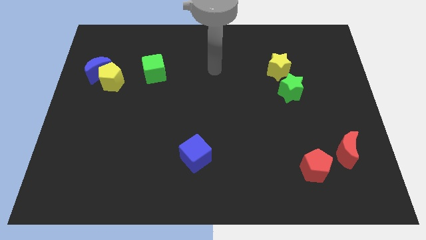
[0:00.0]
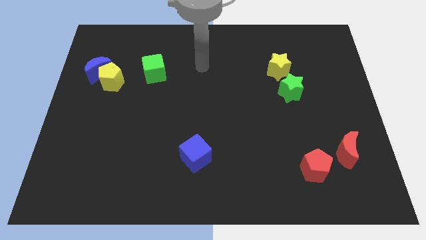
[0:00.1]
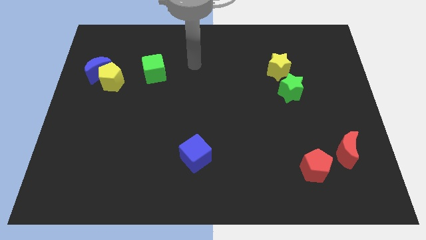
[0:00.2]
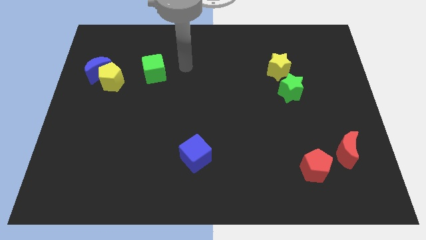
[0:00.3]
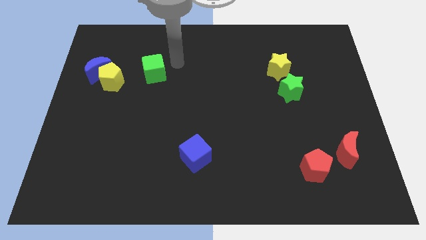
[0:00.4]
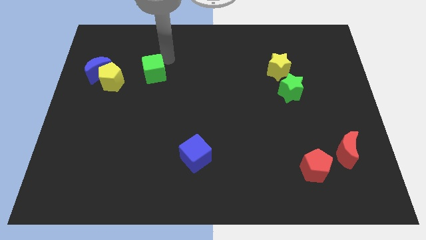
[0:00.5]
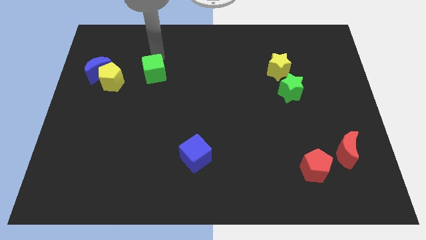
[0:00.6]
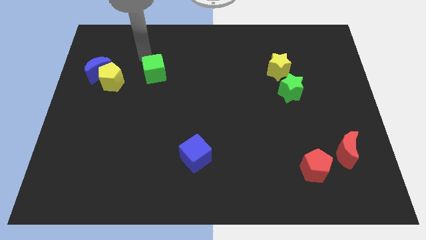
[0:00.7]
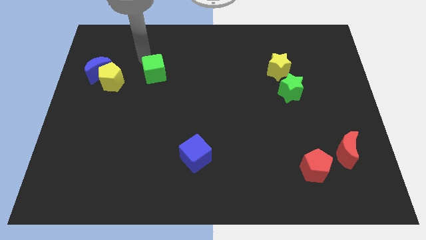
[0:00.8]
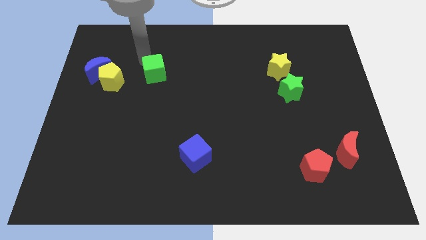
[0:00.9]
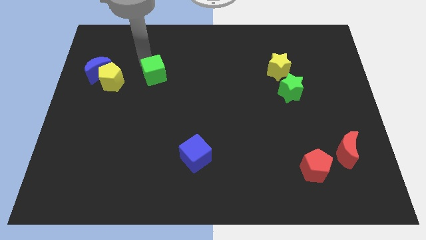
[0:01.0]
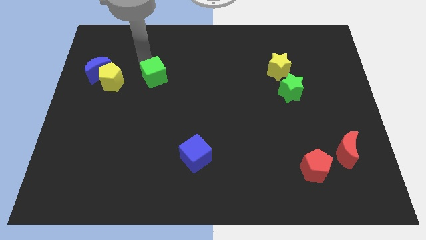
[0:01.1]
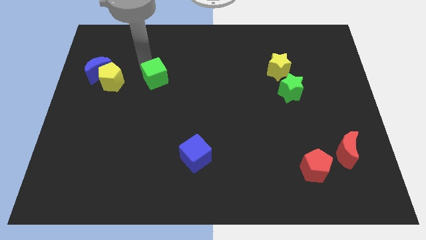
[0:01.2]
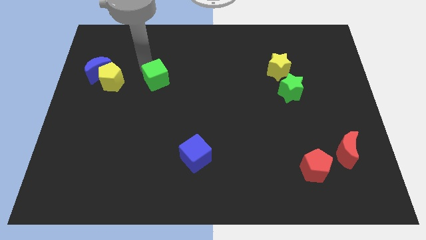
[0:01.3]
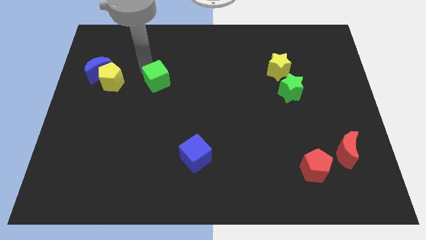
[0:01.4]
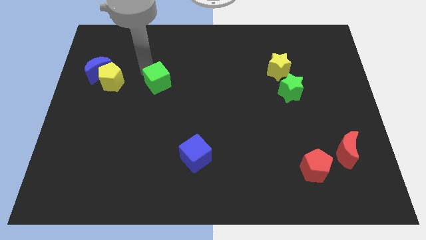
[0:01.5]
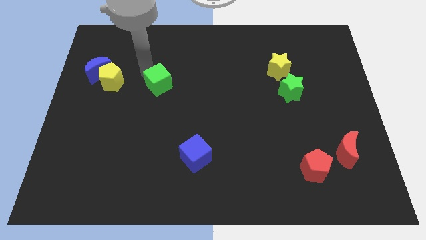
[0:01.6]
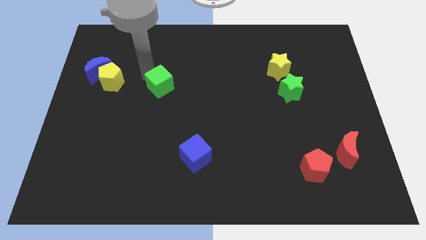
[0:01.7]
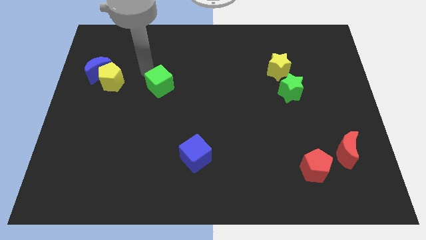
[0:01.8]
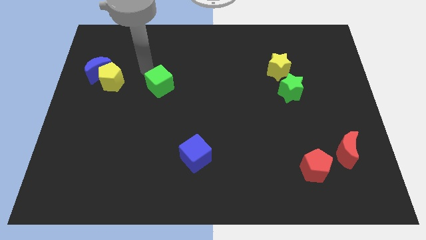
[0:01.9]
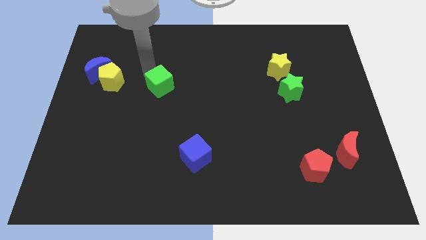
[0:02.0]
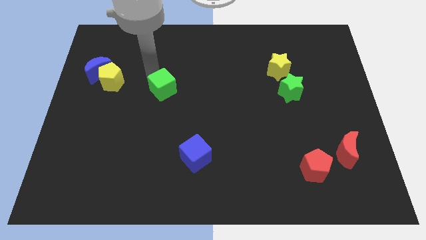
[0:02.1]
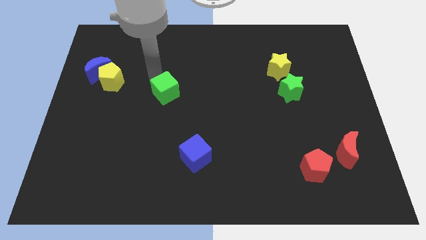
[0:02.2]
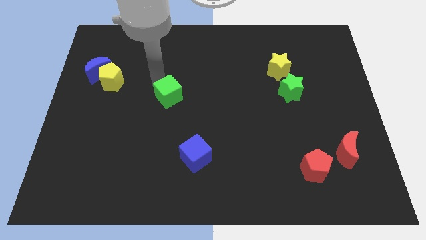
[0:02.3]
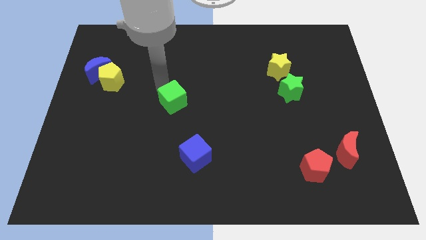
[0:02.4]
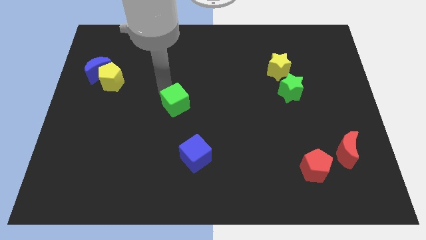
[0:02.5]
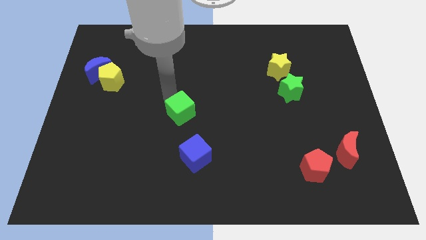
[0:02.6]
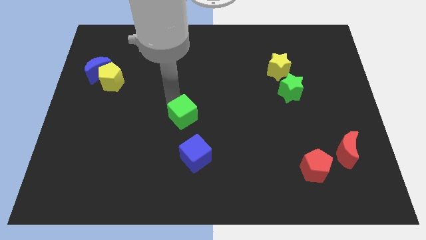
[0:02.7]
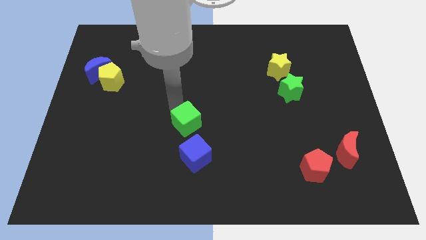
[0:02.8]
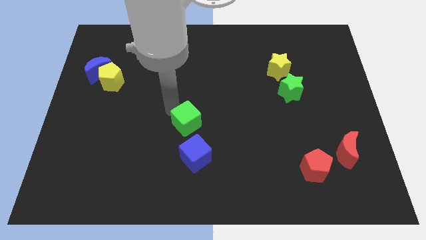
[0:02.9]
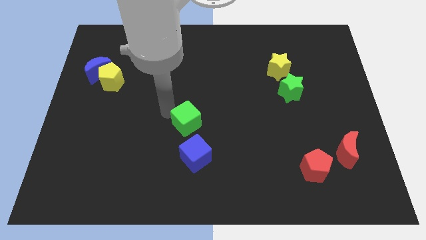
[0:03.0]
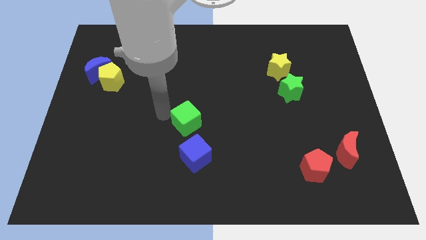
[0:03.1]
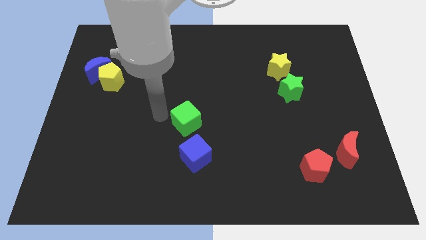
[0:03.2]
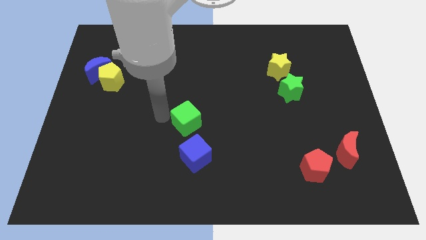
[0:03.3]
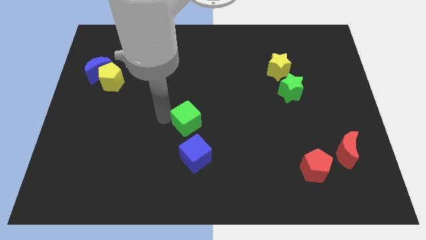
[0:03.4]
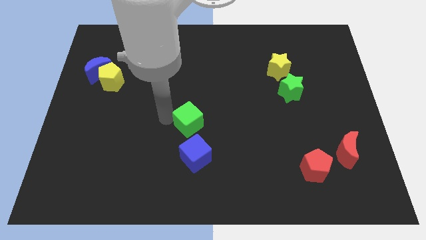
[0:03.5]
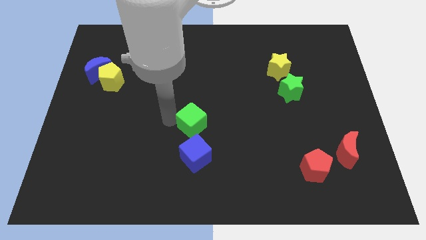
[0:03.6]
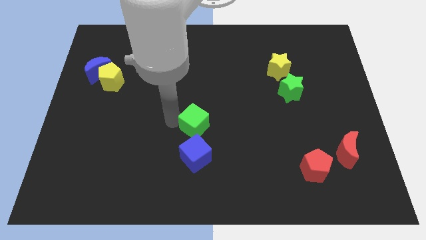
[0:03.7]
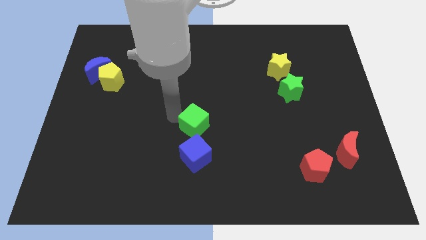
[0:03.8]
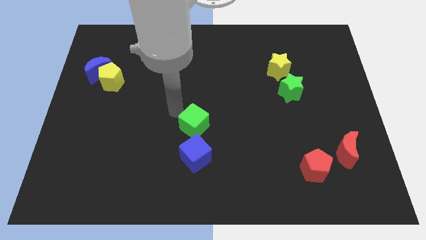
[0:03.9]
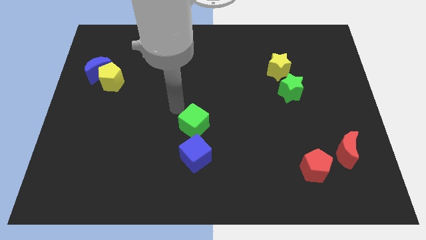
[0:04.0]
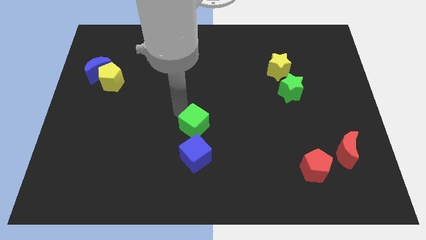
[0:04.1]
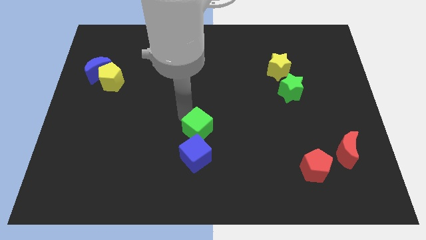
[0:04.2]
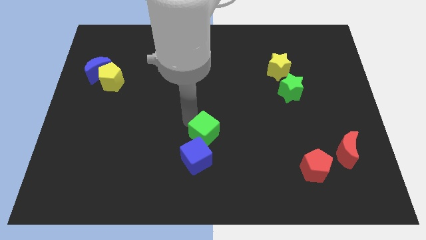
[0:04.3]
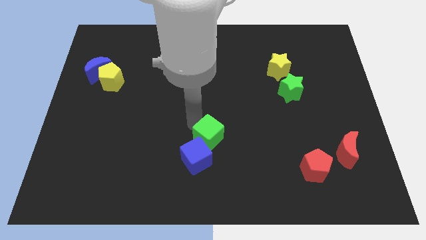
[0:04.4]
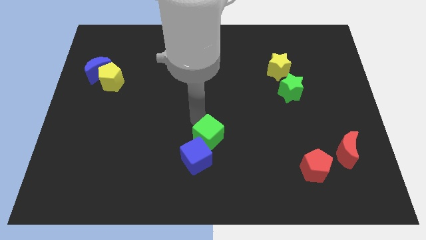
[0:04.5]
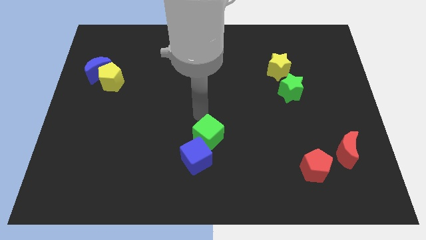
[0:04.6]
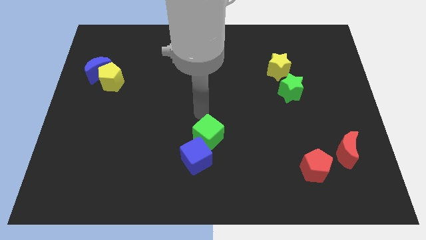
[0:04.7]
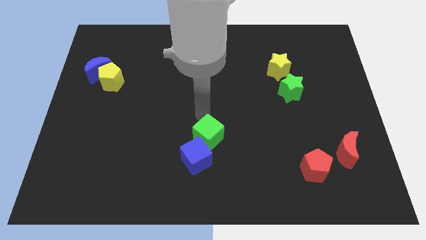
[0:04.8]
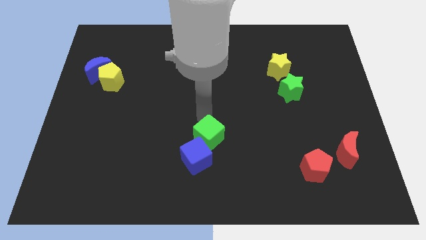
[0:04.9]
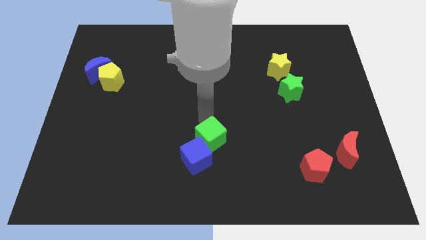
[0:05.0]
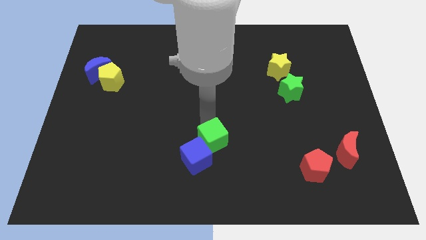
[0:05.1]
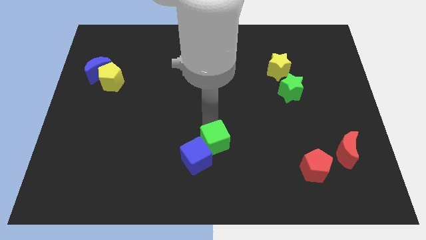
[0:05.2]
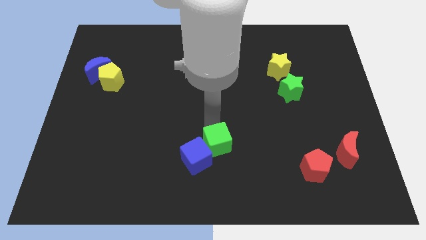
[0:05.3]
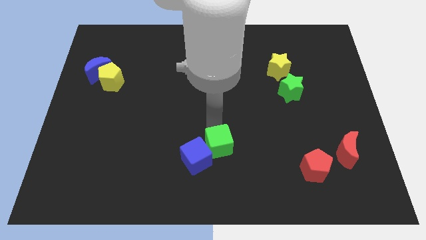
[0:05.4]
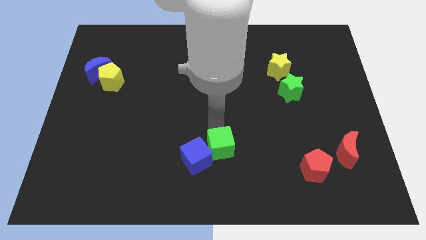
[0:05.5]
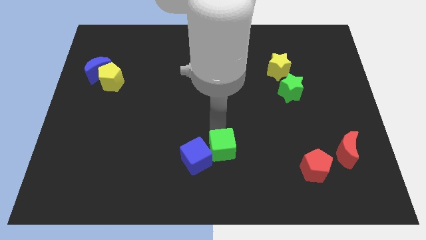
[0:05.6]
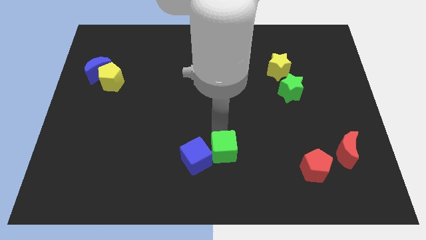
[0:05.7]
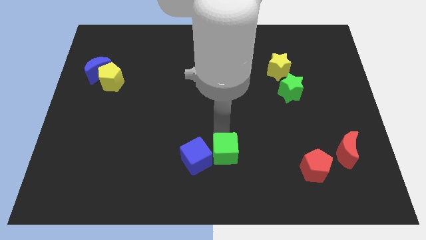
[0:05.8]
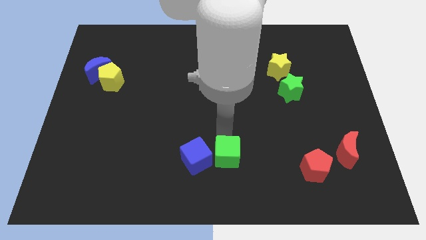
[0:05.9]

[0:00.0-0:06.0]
move the green cube to the bottom

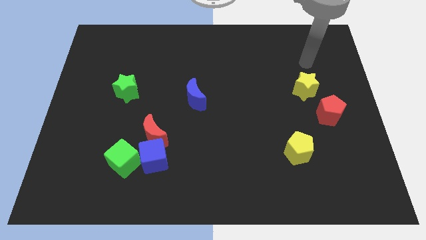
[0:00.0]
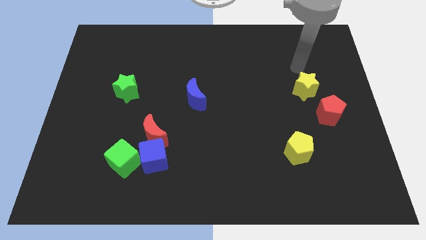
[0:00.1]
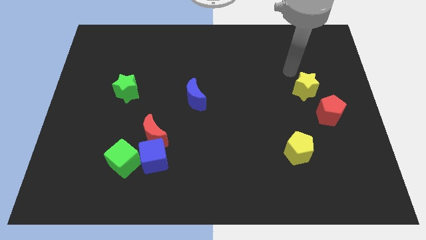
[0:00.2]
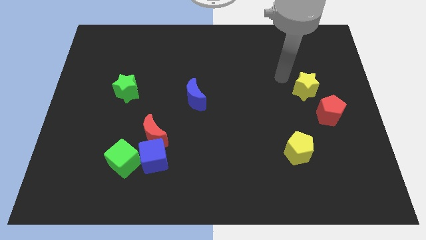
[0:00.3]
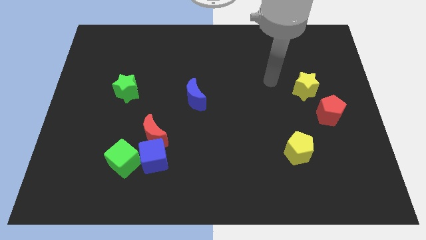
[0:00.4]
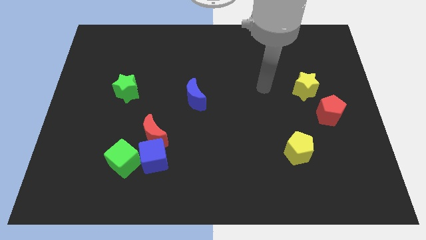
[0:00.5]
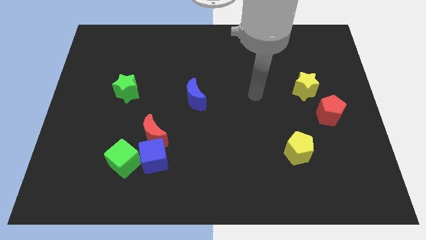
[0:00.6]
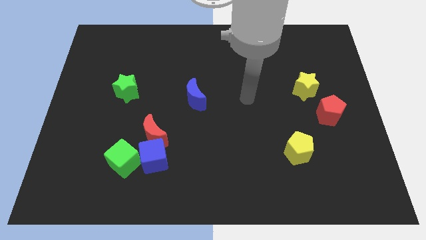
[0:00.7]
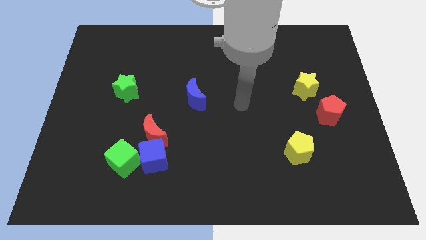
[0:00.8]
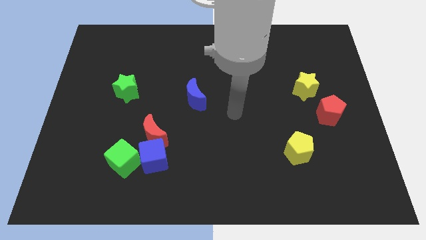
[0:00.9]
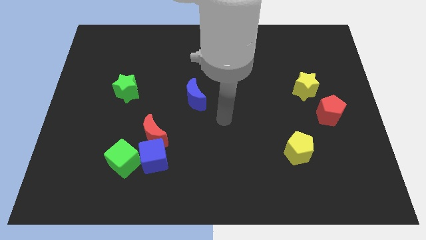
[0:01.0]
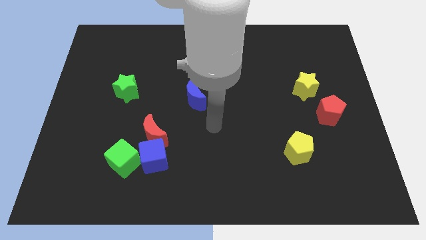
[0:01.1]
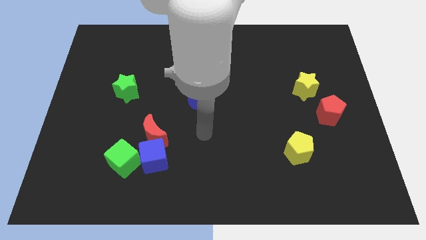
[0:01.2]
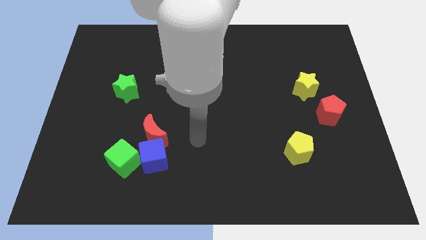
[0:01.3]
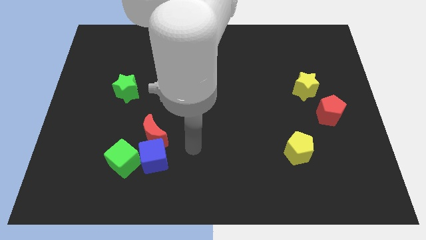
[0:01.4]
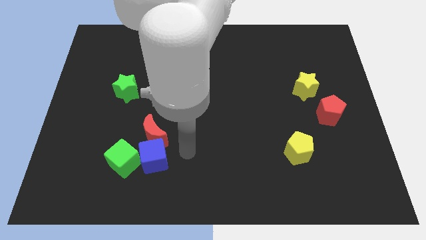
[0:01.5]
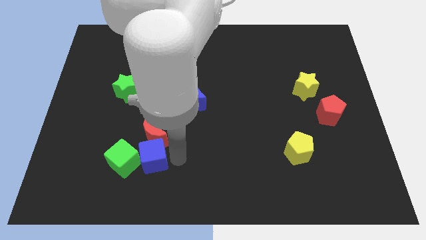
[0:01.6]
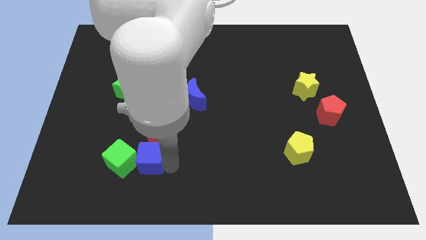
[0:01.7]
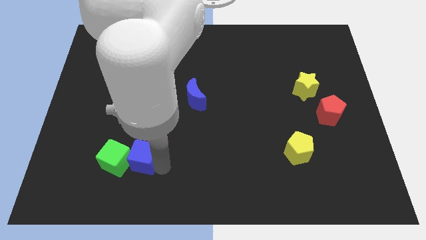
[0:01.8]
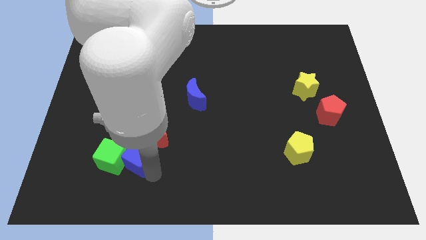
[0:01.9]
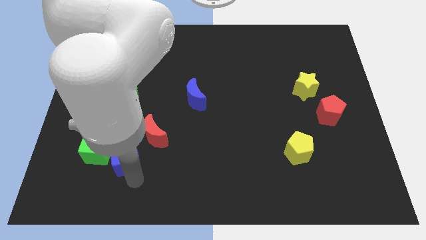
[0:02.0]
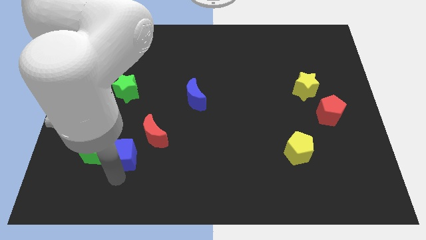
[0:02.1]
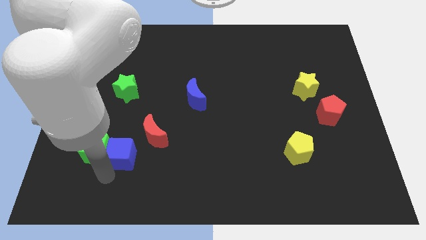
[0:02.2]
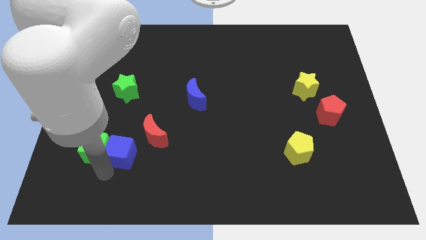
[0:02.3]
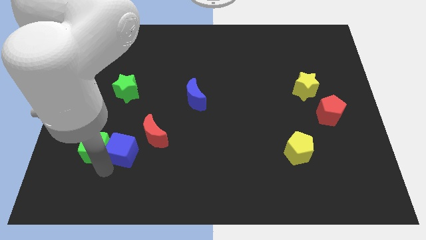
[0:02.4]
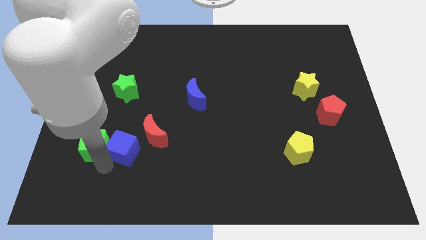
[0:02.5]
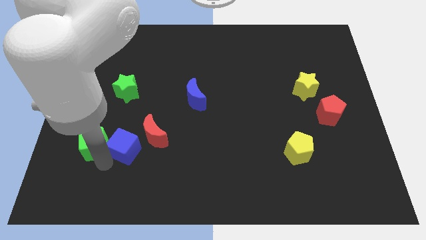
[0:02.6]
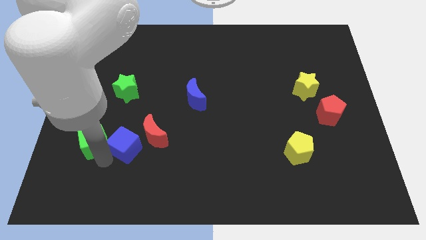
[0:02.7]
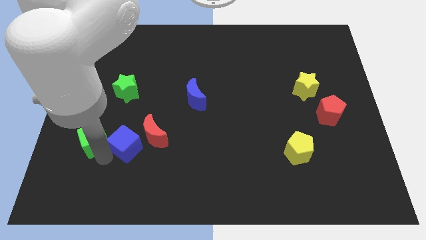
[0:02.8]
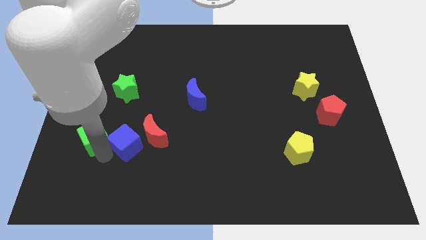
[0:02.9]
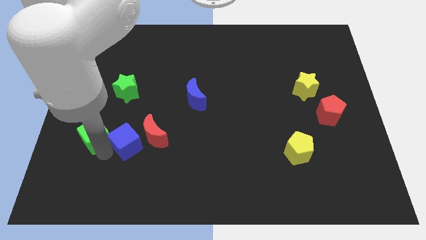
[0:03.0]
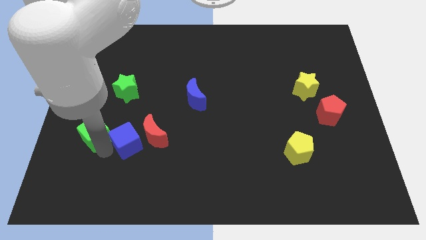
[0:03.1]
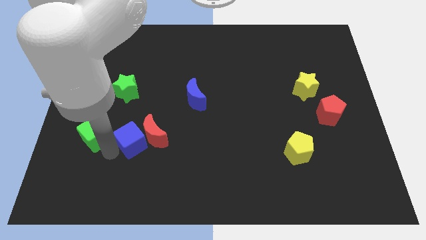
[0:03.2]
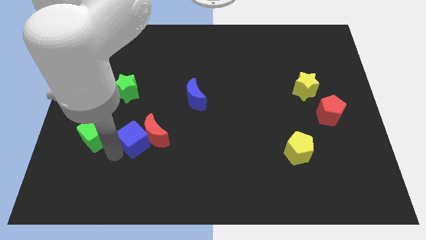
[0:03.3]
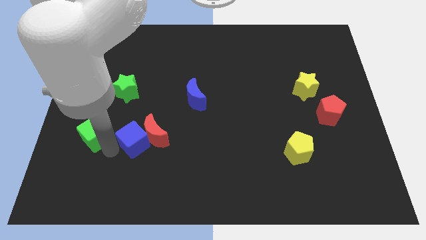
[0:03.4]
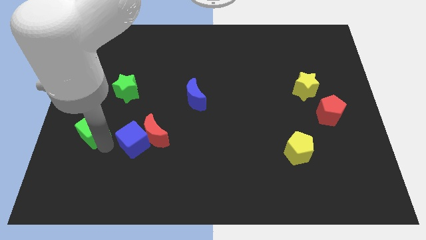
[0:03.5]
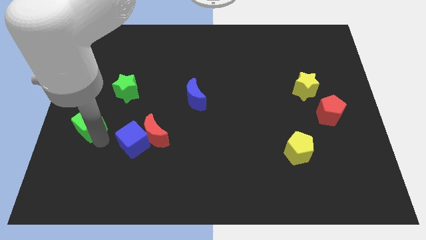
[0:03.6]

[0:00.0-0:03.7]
slide the green cube to the center left
